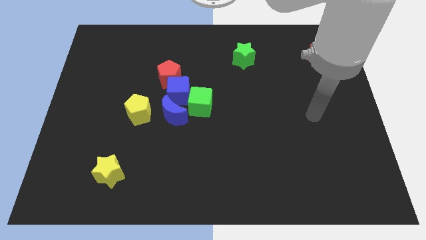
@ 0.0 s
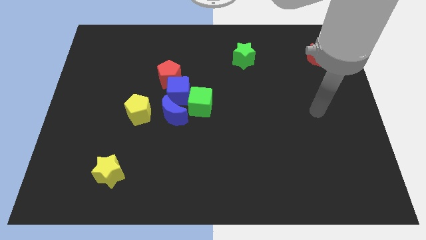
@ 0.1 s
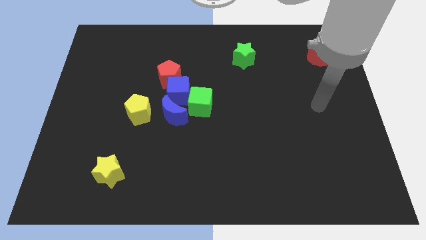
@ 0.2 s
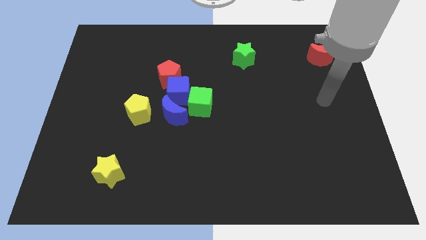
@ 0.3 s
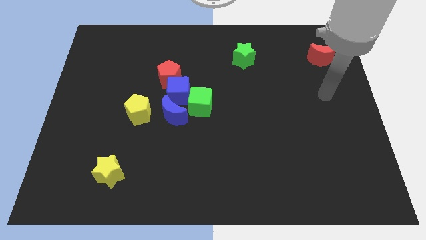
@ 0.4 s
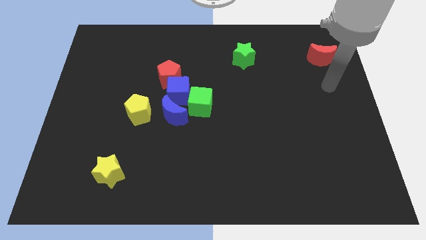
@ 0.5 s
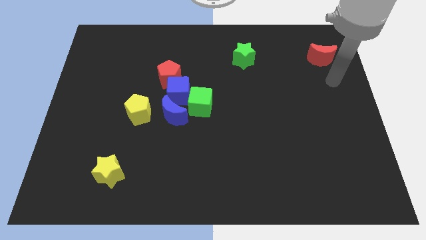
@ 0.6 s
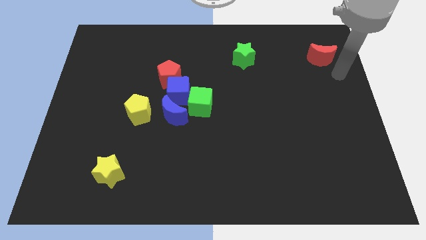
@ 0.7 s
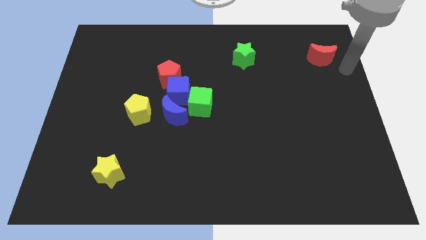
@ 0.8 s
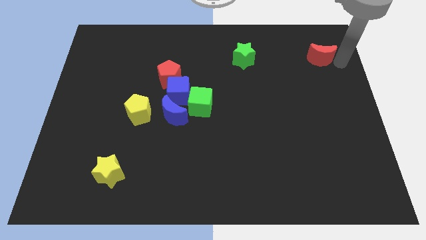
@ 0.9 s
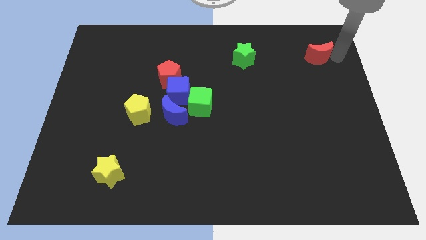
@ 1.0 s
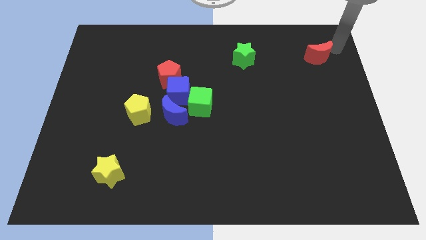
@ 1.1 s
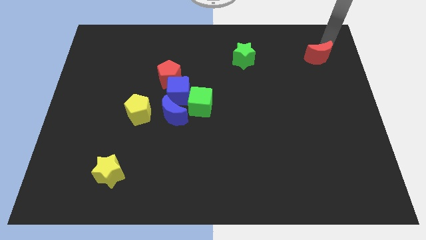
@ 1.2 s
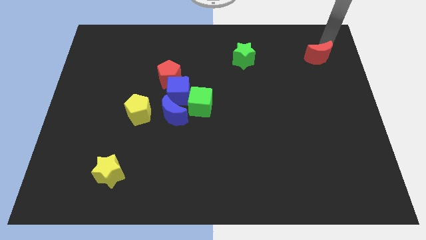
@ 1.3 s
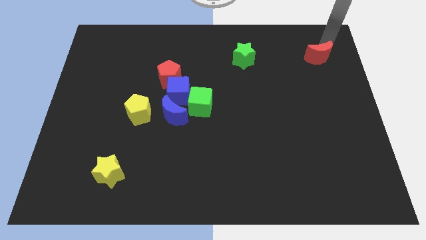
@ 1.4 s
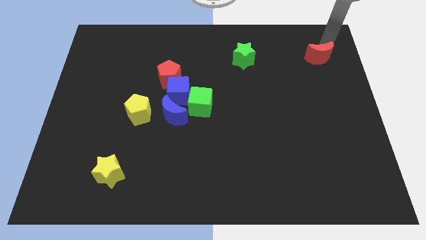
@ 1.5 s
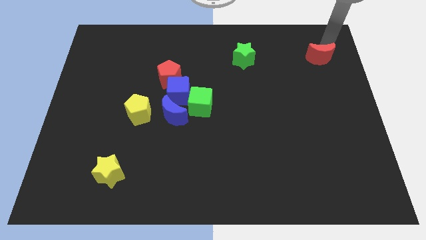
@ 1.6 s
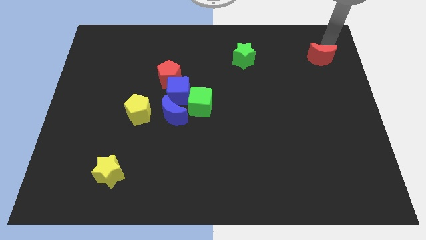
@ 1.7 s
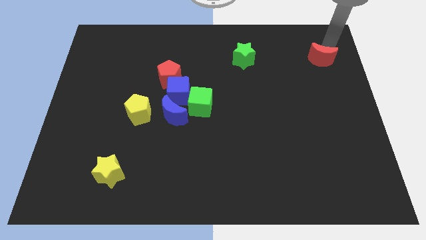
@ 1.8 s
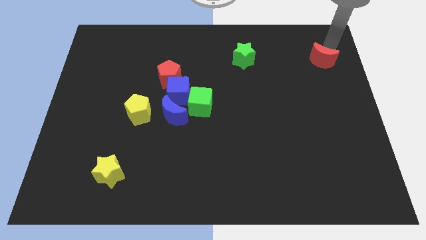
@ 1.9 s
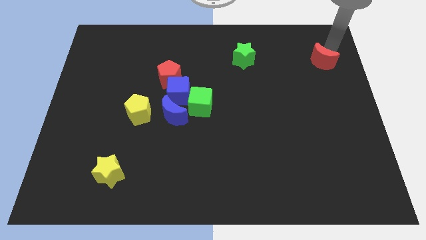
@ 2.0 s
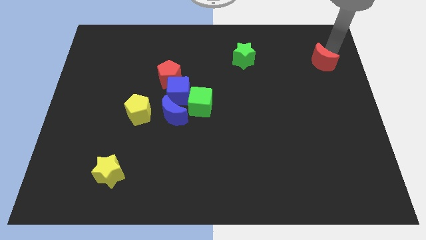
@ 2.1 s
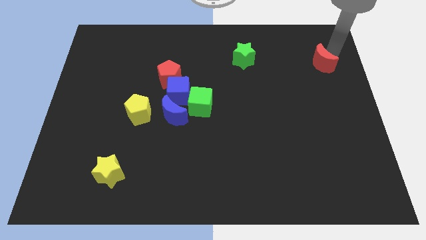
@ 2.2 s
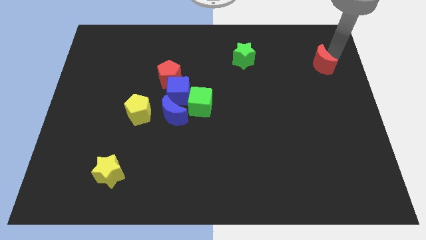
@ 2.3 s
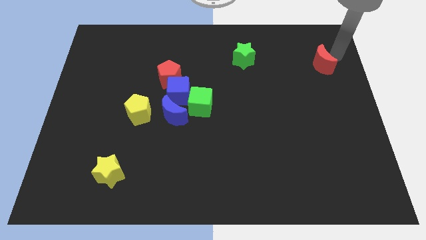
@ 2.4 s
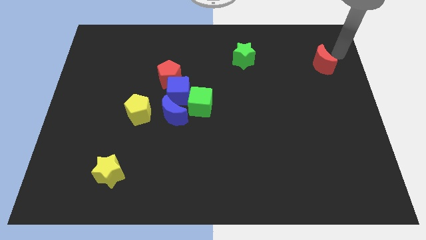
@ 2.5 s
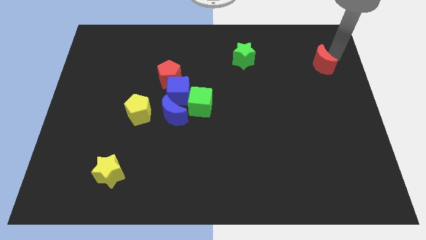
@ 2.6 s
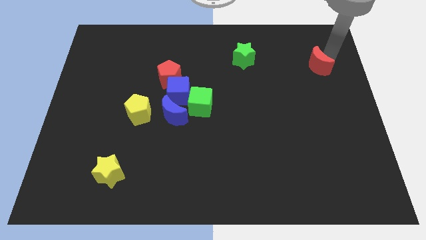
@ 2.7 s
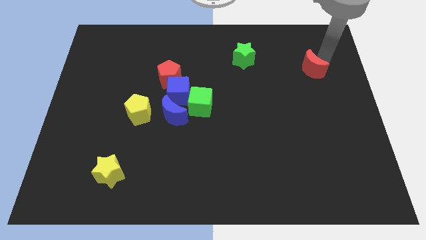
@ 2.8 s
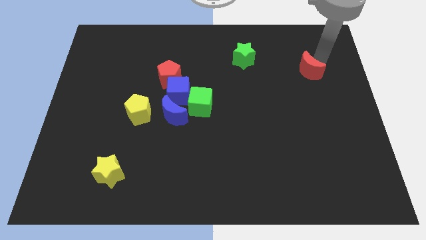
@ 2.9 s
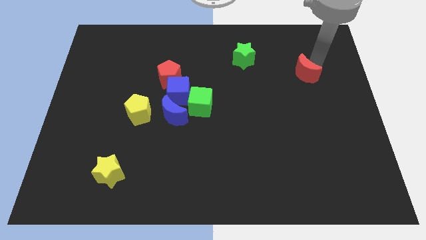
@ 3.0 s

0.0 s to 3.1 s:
slightly push the red moon downwards and then left

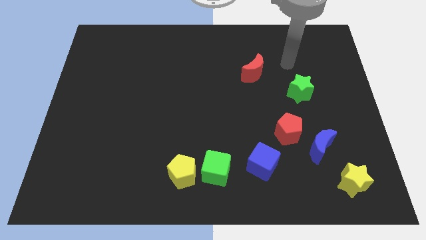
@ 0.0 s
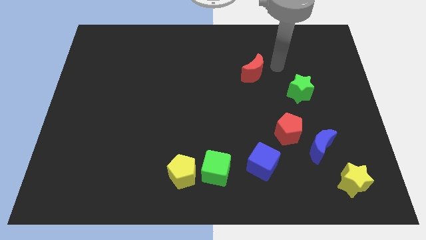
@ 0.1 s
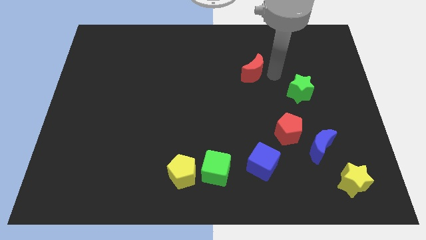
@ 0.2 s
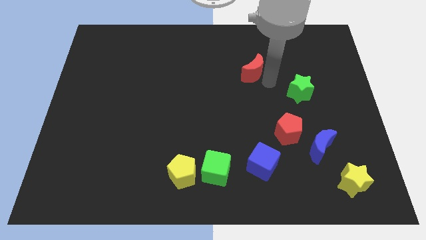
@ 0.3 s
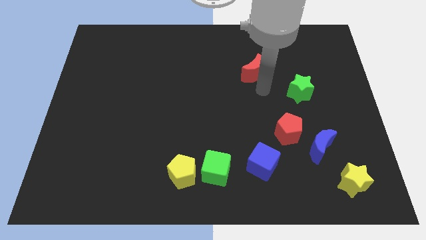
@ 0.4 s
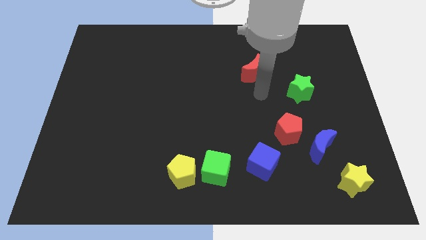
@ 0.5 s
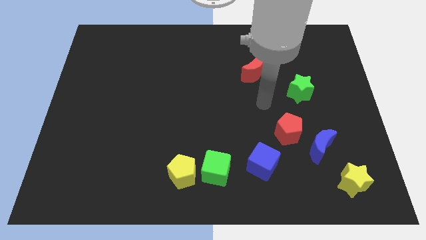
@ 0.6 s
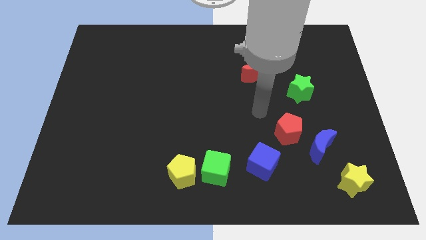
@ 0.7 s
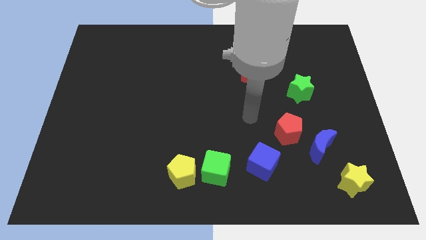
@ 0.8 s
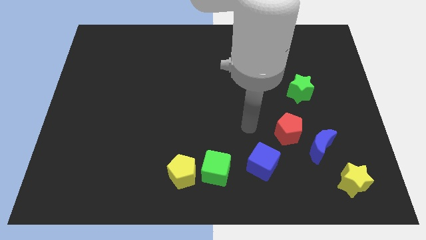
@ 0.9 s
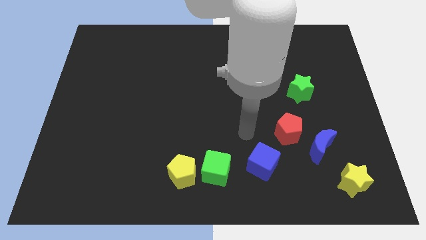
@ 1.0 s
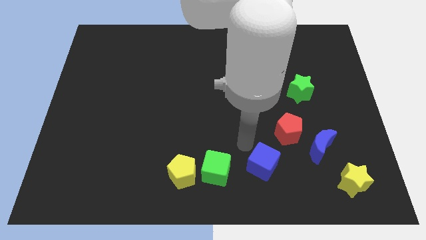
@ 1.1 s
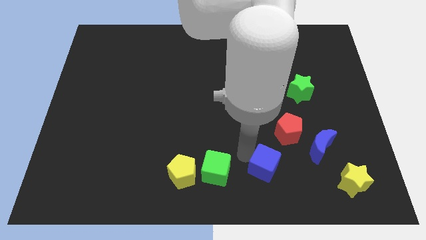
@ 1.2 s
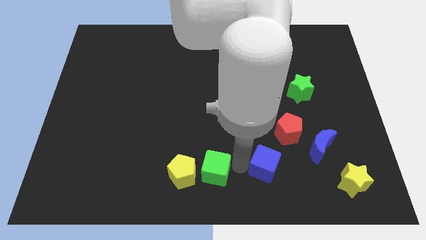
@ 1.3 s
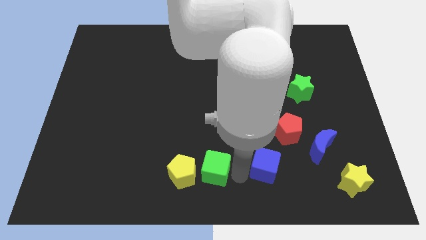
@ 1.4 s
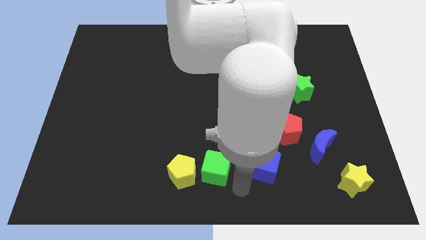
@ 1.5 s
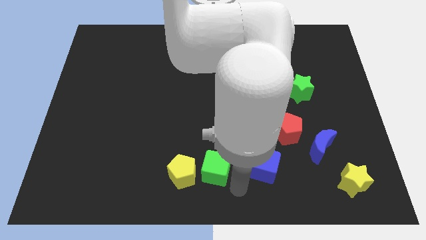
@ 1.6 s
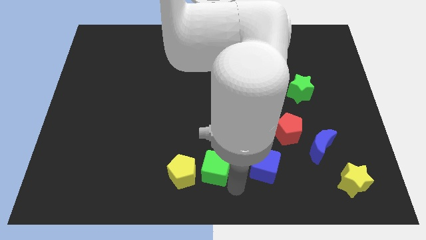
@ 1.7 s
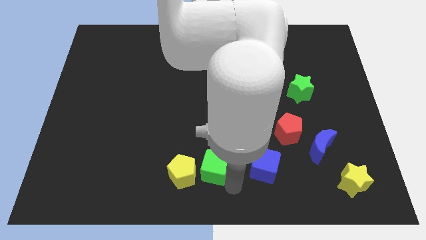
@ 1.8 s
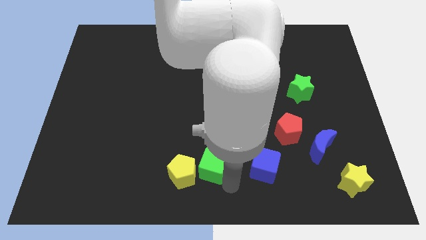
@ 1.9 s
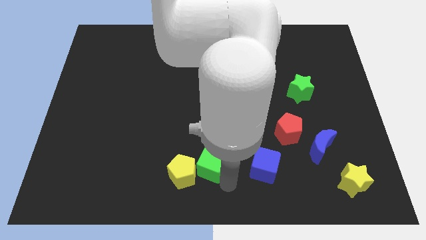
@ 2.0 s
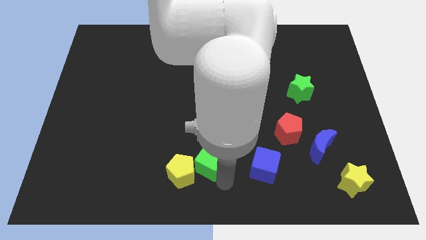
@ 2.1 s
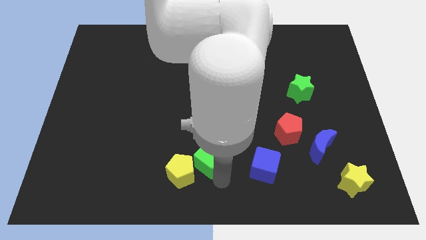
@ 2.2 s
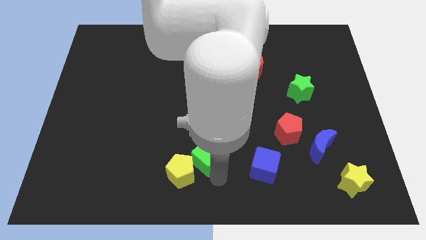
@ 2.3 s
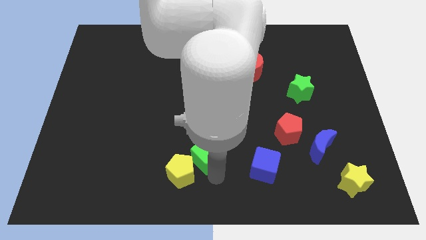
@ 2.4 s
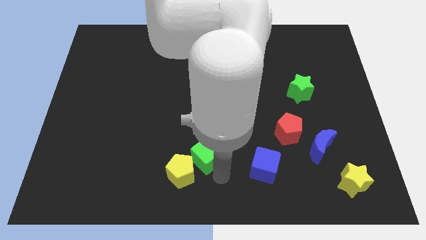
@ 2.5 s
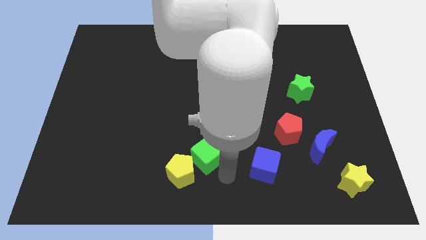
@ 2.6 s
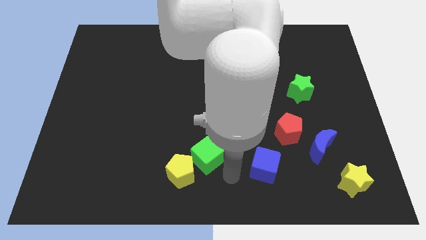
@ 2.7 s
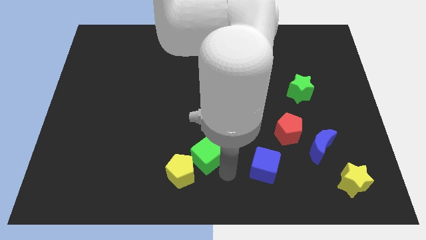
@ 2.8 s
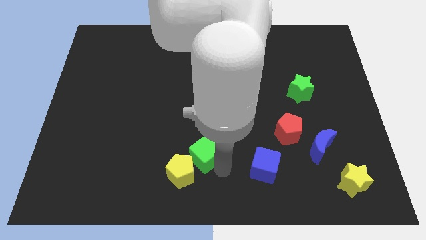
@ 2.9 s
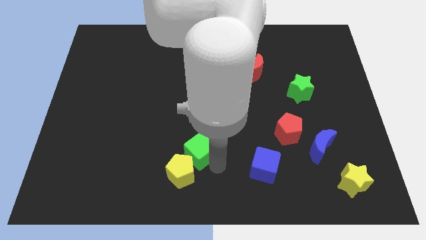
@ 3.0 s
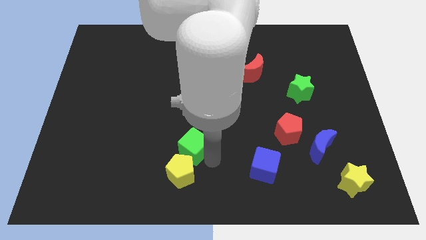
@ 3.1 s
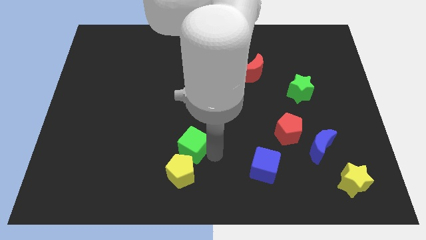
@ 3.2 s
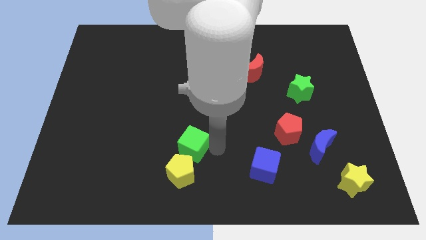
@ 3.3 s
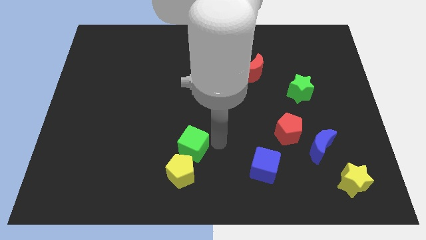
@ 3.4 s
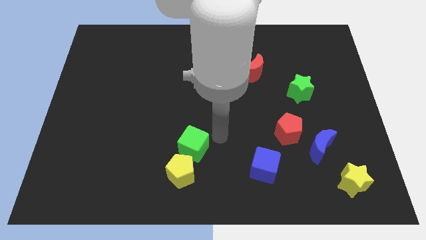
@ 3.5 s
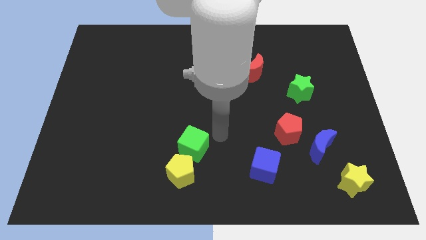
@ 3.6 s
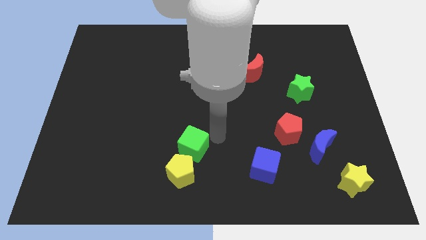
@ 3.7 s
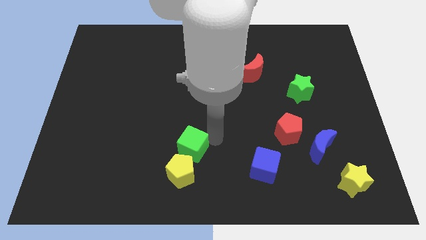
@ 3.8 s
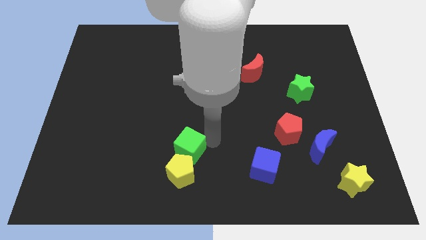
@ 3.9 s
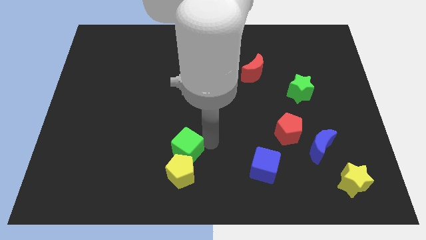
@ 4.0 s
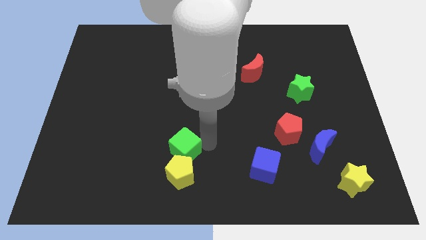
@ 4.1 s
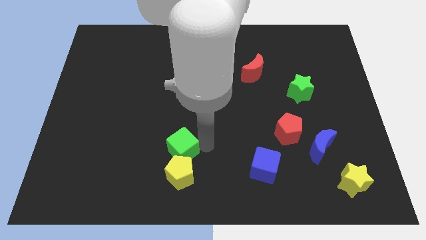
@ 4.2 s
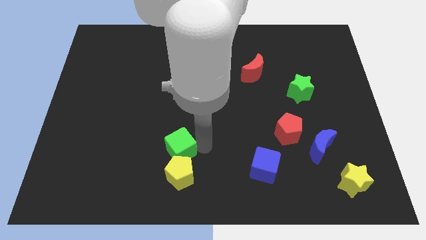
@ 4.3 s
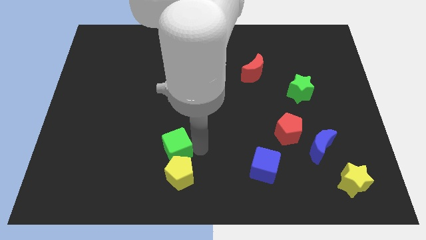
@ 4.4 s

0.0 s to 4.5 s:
move the green cube left a bit
